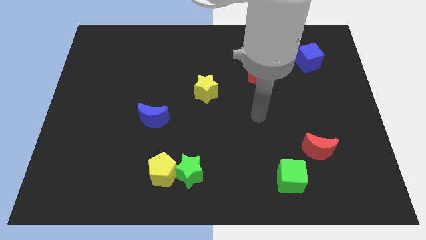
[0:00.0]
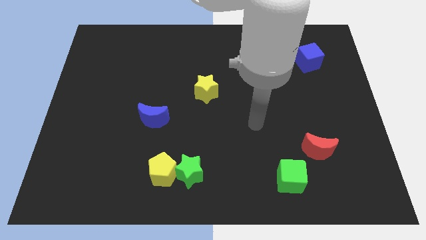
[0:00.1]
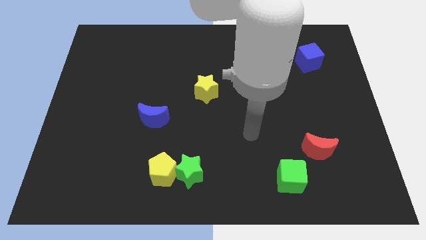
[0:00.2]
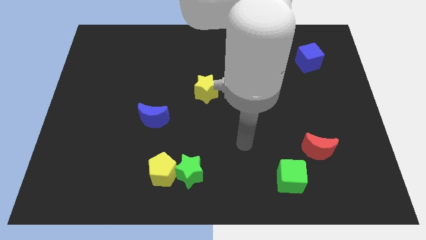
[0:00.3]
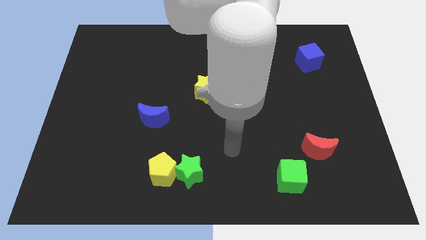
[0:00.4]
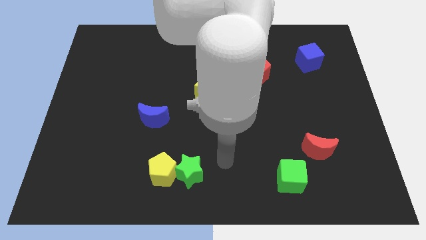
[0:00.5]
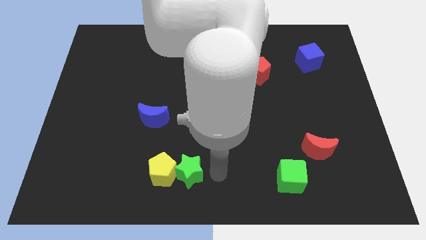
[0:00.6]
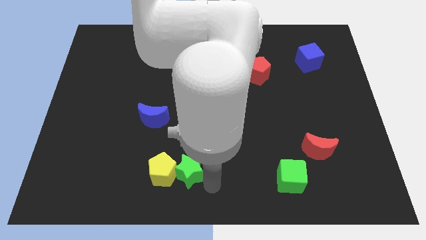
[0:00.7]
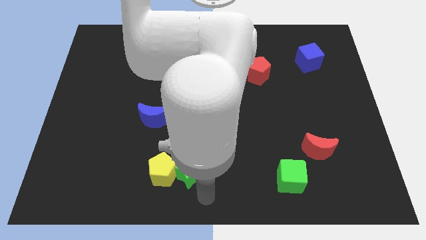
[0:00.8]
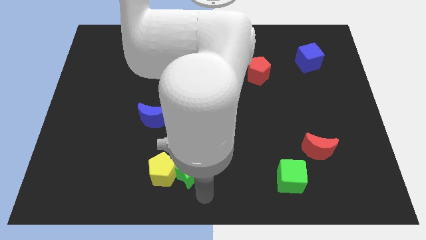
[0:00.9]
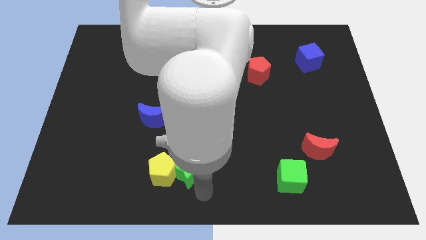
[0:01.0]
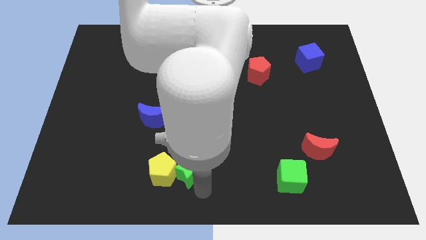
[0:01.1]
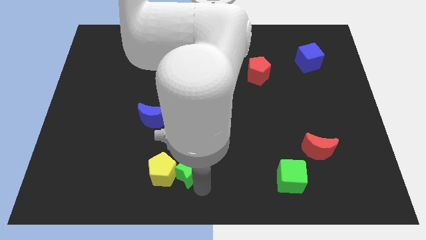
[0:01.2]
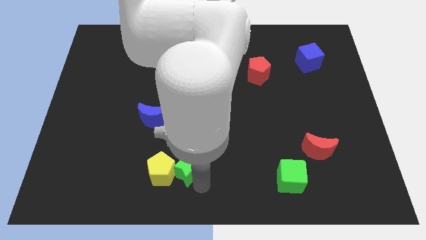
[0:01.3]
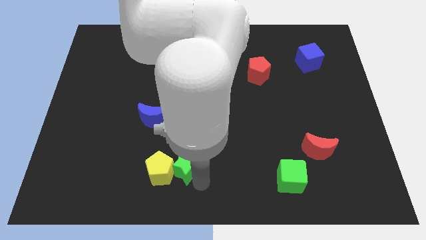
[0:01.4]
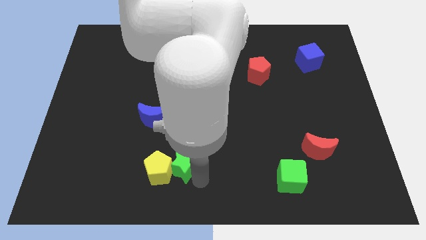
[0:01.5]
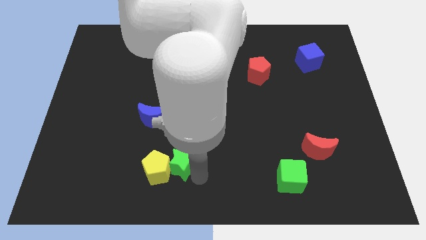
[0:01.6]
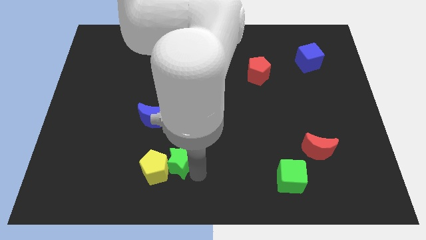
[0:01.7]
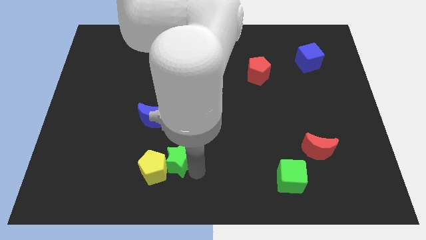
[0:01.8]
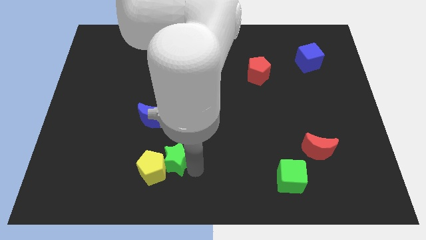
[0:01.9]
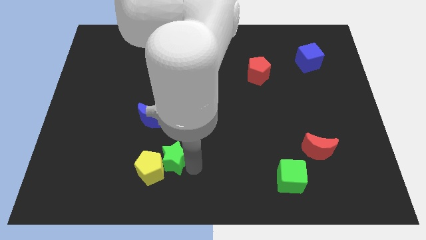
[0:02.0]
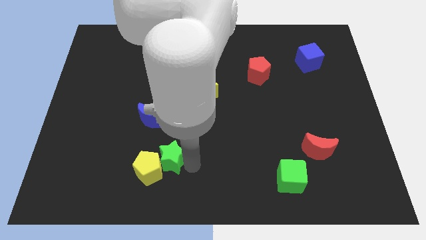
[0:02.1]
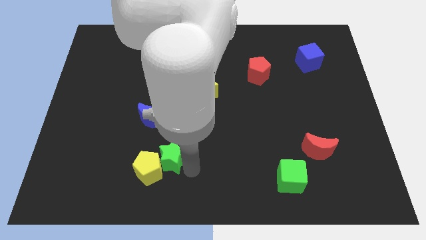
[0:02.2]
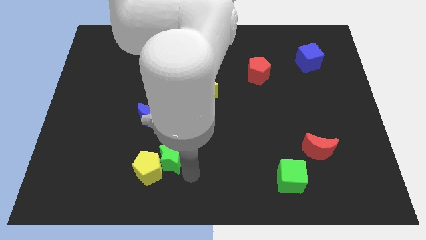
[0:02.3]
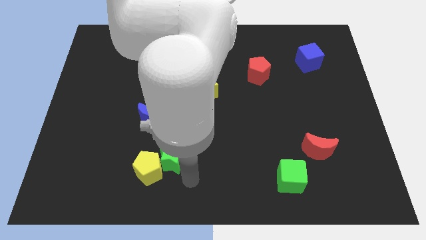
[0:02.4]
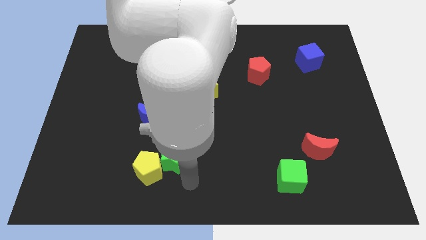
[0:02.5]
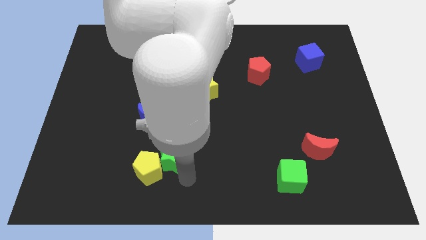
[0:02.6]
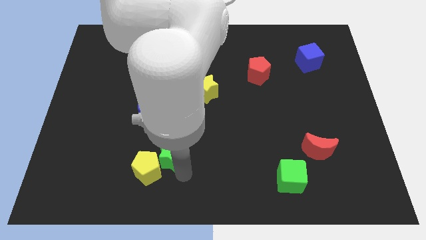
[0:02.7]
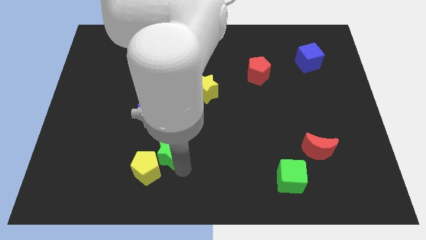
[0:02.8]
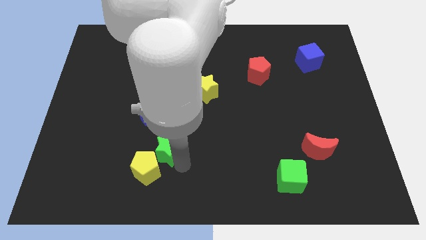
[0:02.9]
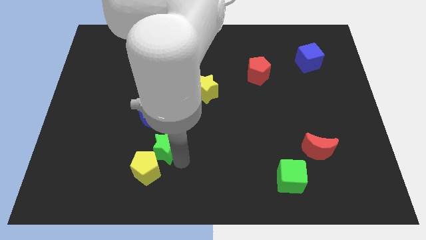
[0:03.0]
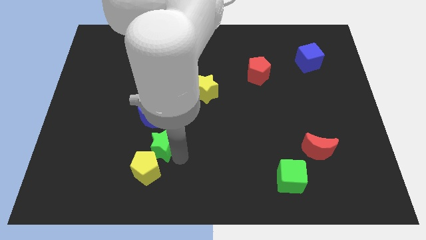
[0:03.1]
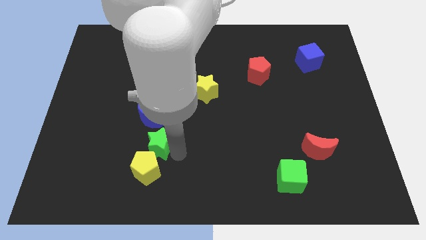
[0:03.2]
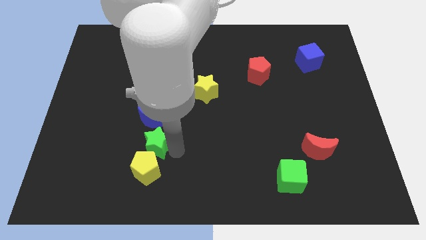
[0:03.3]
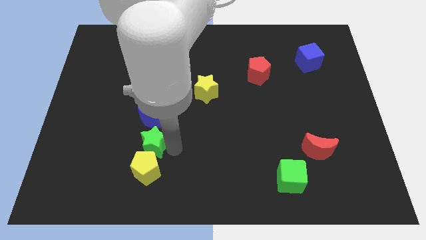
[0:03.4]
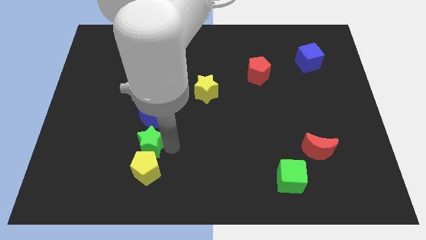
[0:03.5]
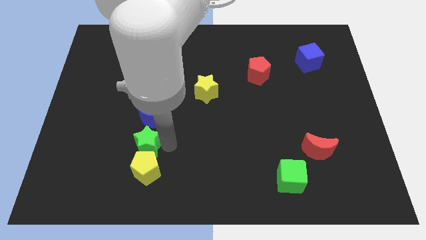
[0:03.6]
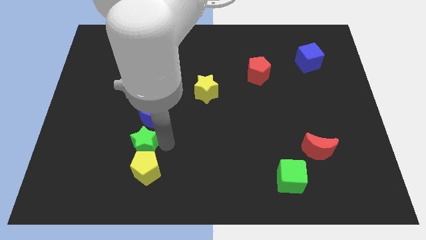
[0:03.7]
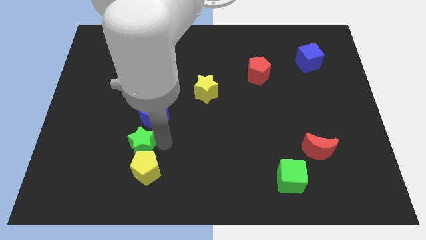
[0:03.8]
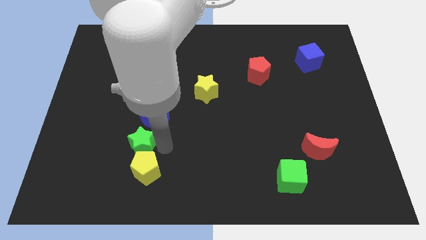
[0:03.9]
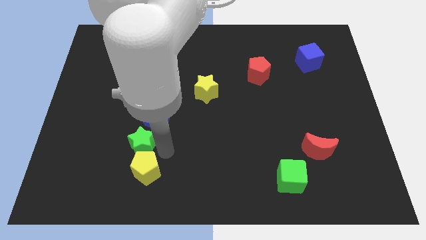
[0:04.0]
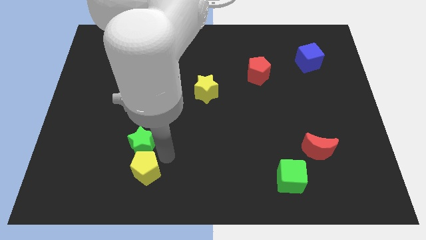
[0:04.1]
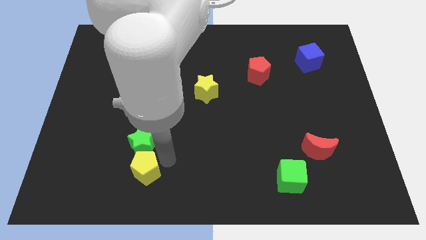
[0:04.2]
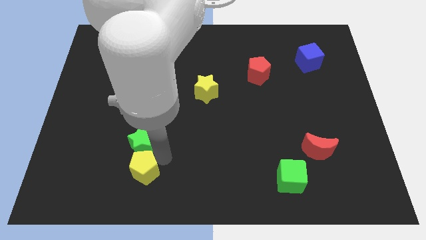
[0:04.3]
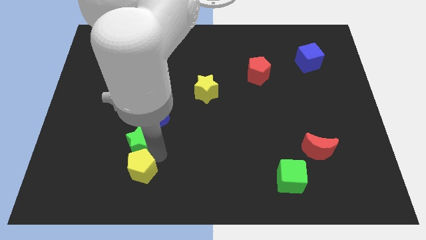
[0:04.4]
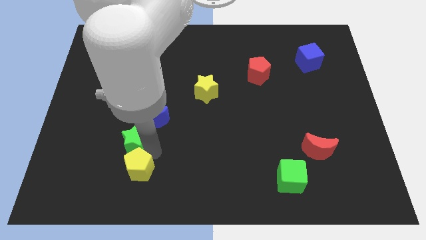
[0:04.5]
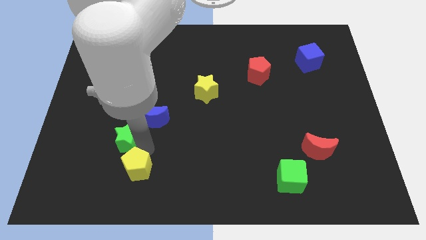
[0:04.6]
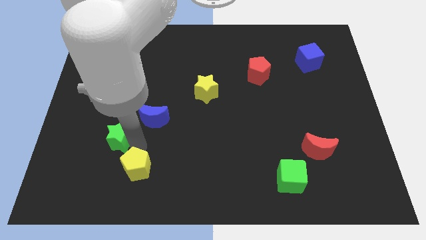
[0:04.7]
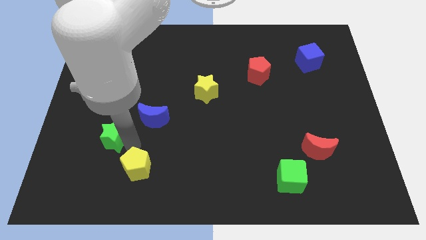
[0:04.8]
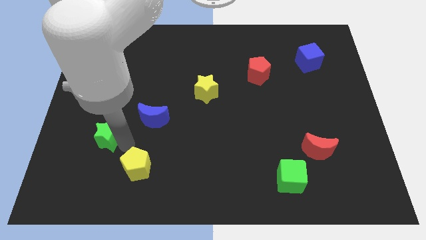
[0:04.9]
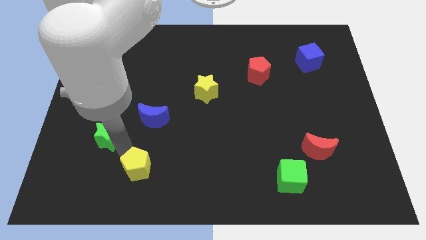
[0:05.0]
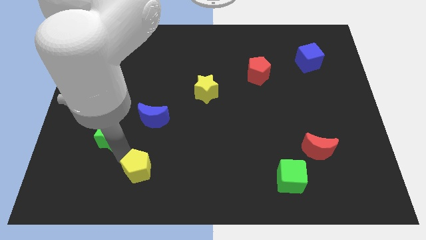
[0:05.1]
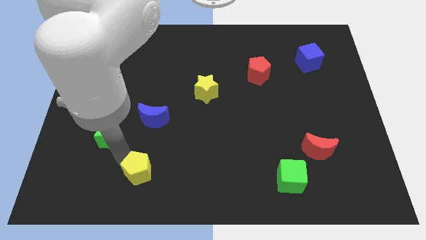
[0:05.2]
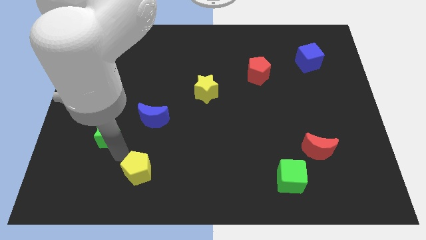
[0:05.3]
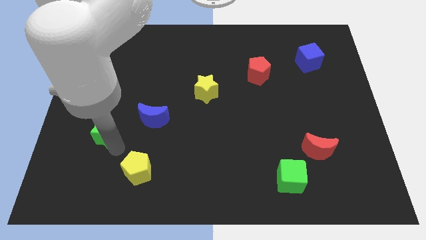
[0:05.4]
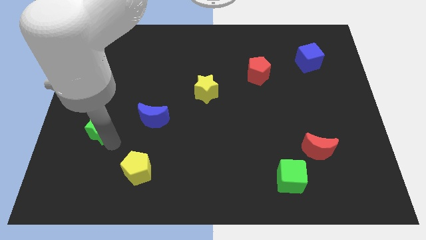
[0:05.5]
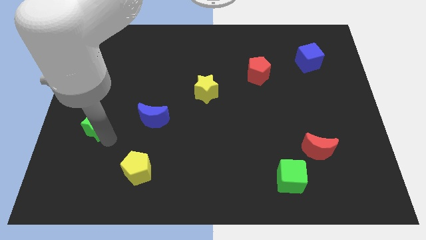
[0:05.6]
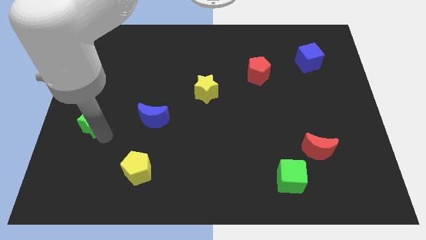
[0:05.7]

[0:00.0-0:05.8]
move the green star to the left side of the board

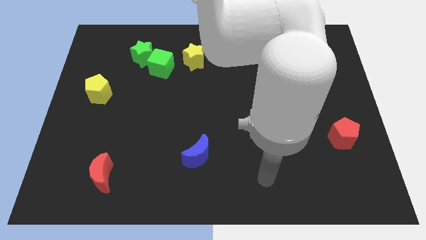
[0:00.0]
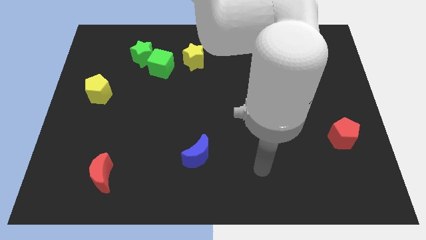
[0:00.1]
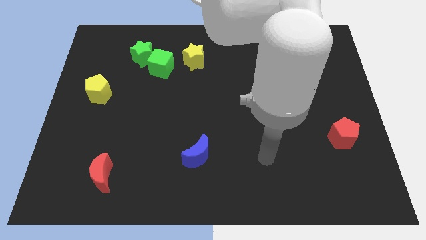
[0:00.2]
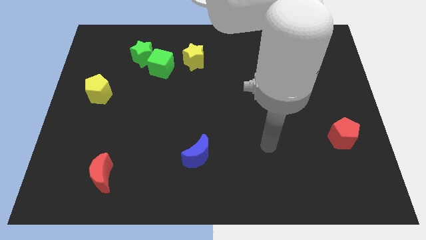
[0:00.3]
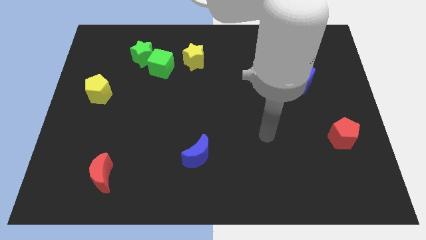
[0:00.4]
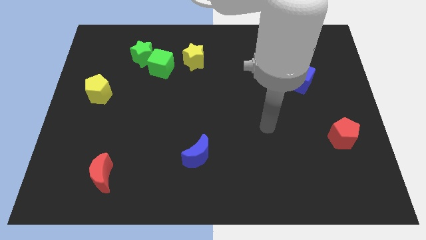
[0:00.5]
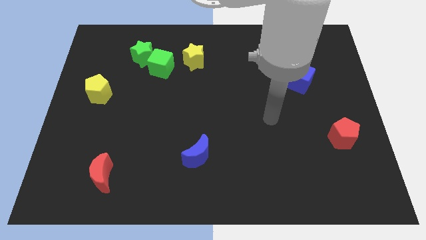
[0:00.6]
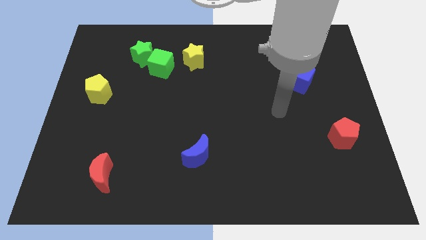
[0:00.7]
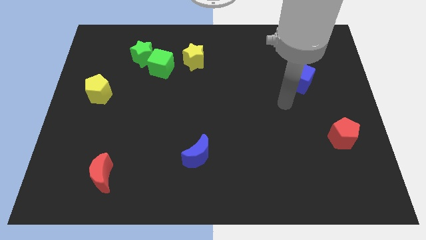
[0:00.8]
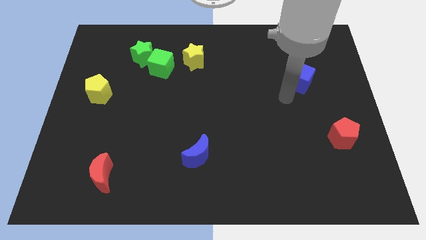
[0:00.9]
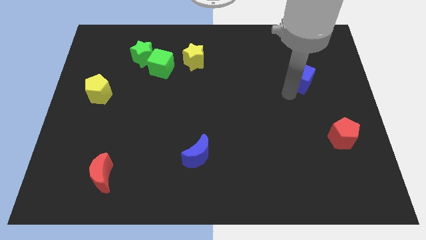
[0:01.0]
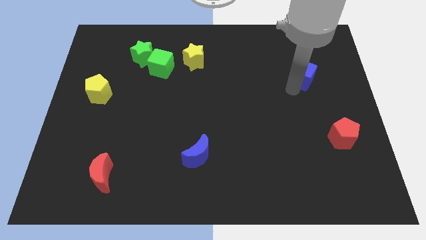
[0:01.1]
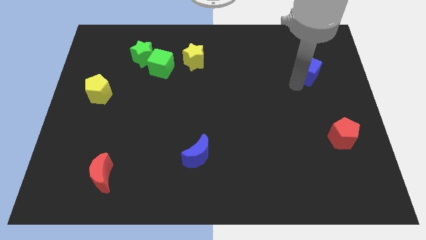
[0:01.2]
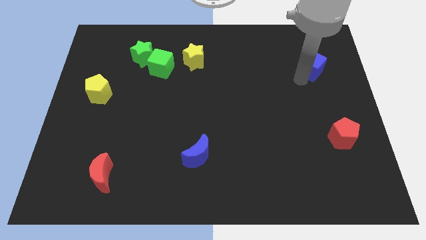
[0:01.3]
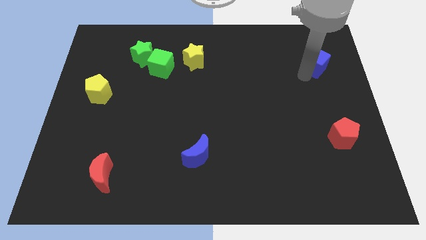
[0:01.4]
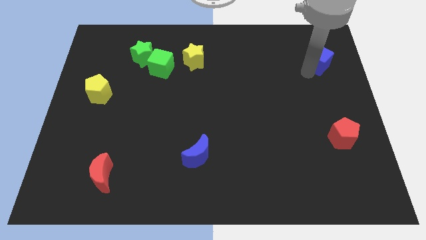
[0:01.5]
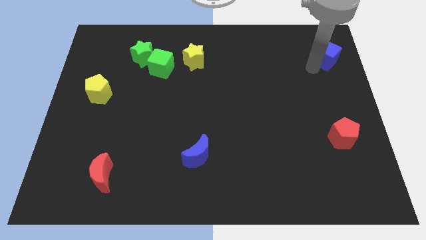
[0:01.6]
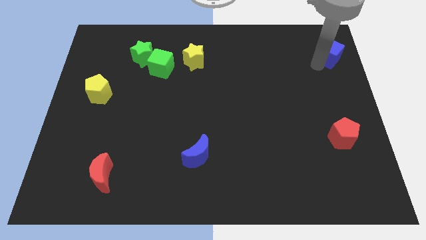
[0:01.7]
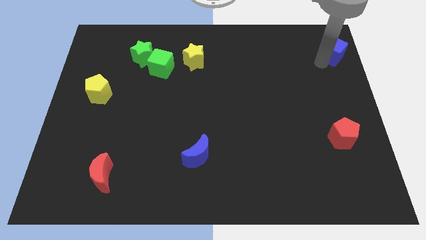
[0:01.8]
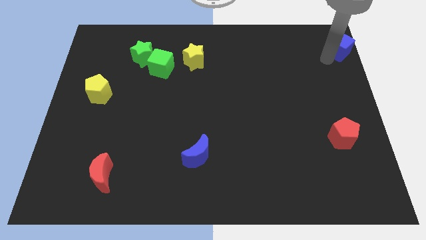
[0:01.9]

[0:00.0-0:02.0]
move the blue cube to the top right
